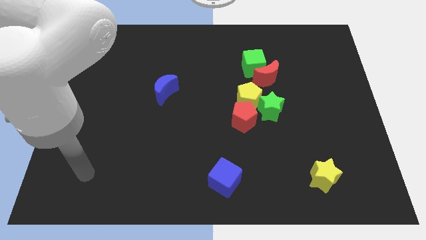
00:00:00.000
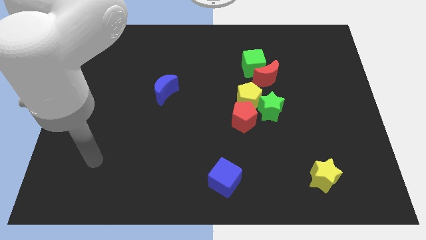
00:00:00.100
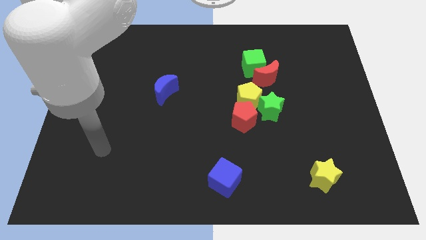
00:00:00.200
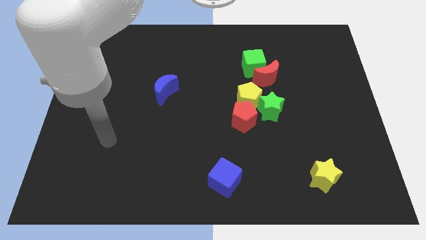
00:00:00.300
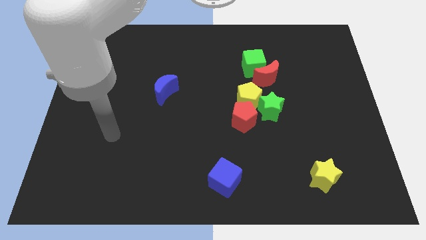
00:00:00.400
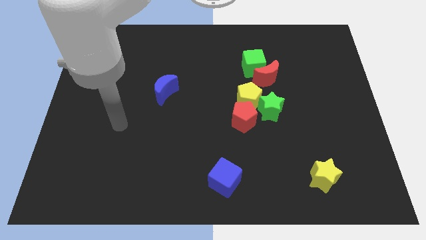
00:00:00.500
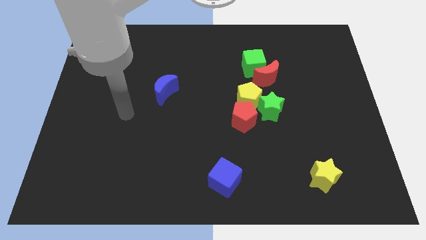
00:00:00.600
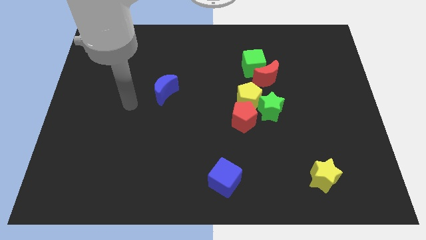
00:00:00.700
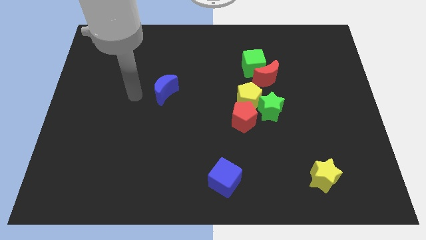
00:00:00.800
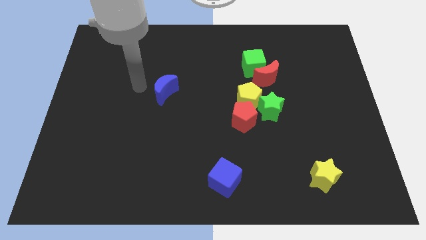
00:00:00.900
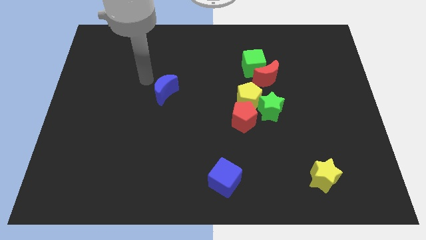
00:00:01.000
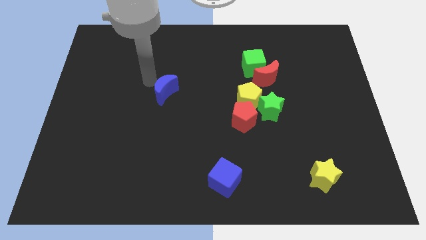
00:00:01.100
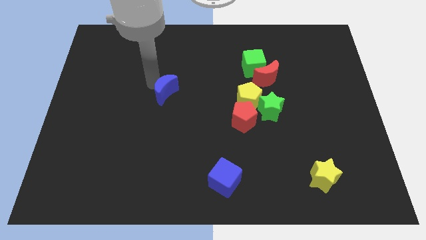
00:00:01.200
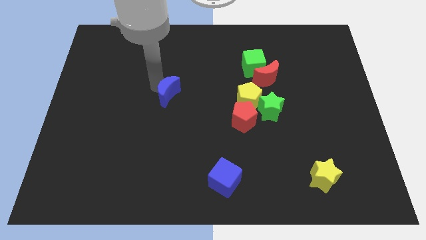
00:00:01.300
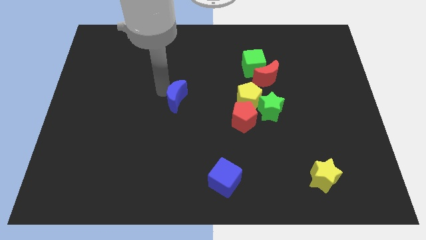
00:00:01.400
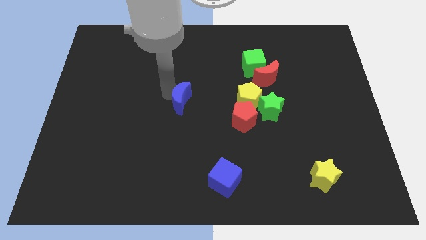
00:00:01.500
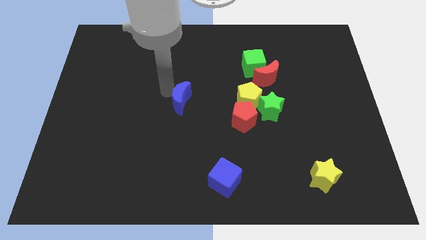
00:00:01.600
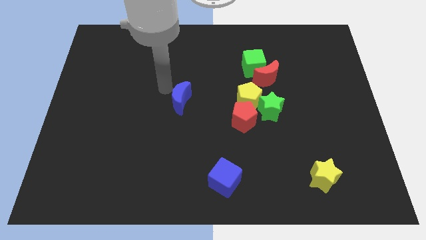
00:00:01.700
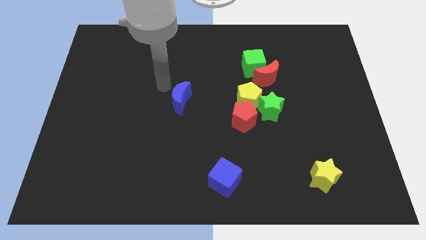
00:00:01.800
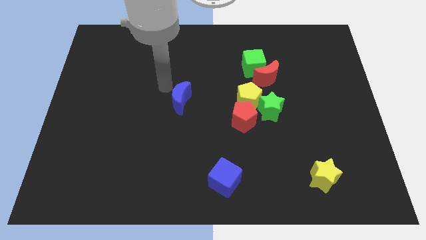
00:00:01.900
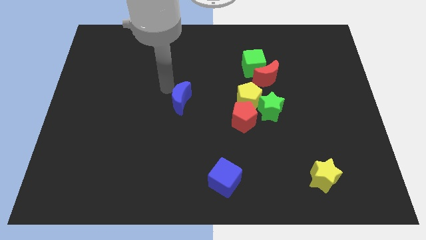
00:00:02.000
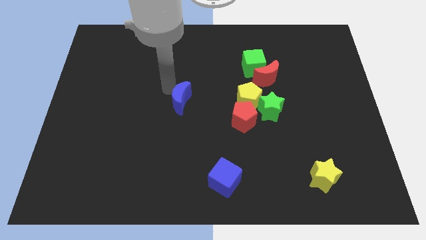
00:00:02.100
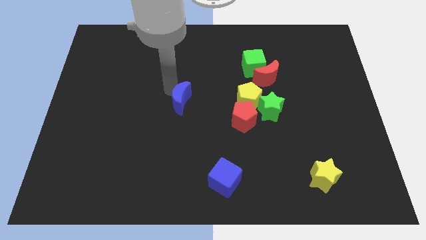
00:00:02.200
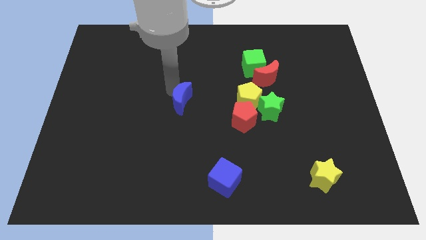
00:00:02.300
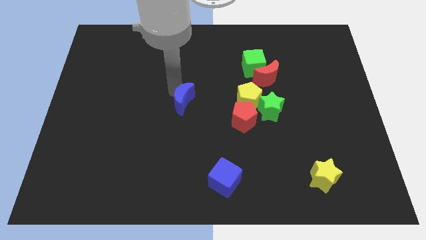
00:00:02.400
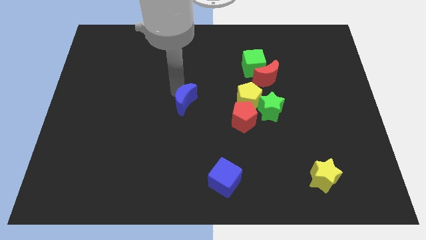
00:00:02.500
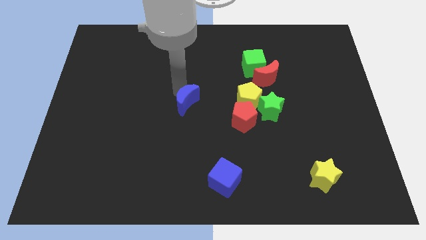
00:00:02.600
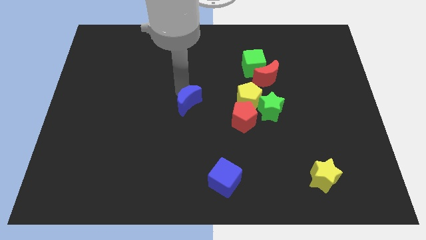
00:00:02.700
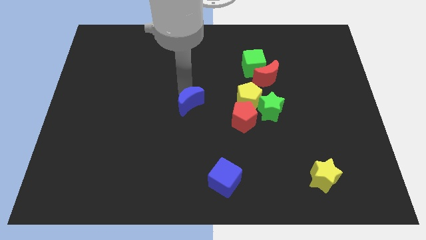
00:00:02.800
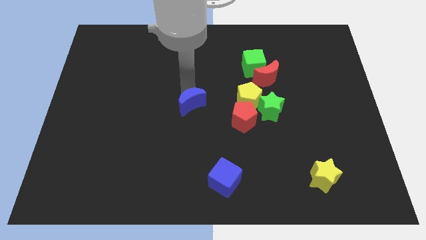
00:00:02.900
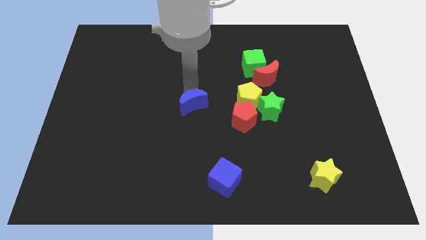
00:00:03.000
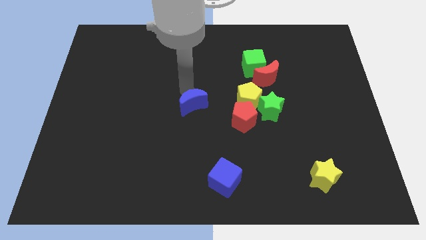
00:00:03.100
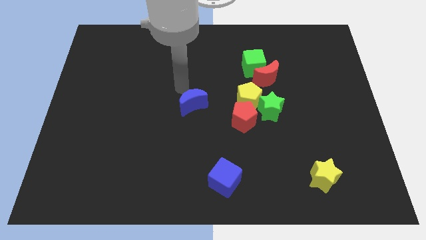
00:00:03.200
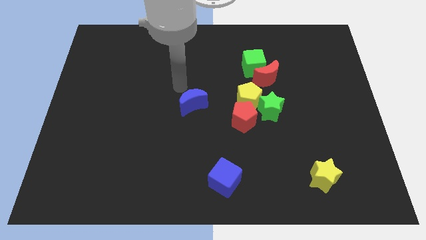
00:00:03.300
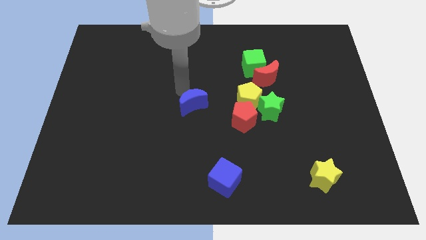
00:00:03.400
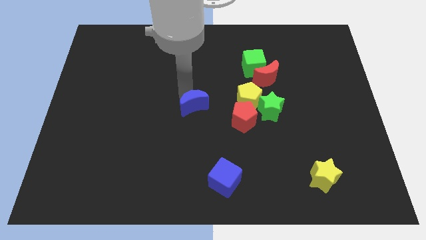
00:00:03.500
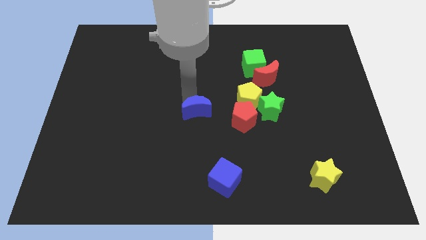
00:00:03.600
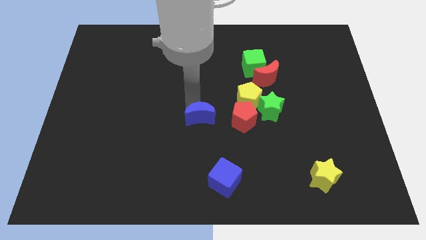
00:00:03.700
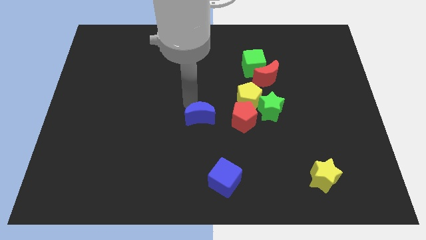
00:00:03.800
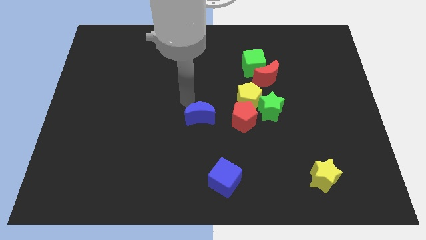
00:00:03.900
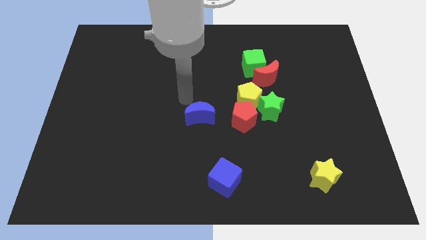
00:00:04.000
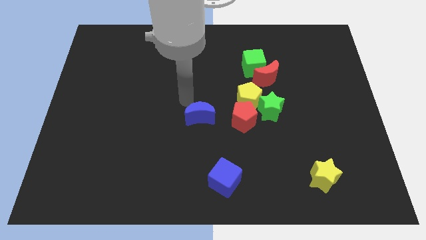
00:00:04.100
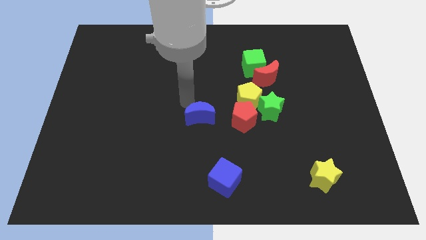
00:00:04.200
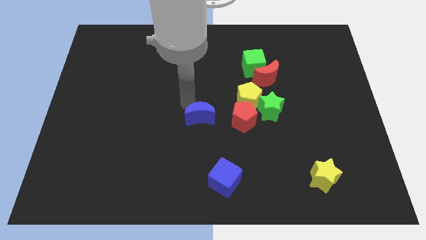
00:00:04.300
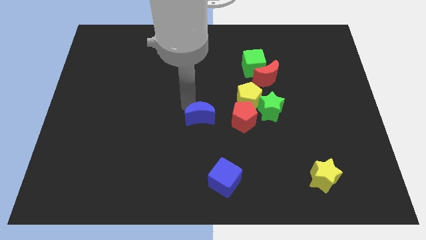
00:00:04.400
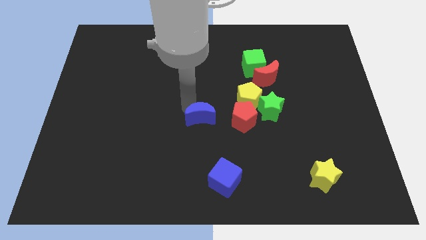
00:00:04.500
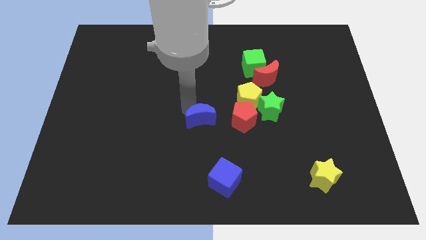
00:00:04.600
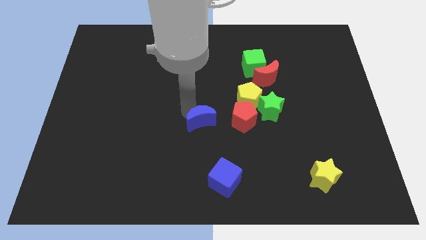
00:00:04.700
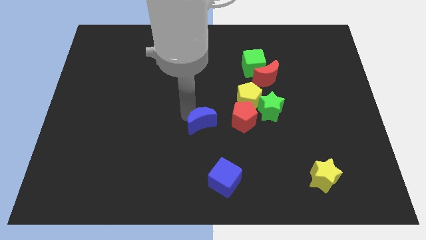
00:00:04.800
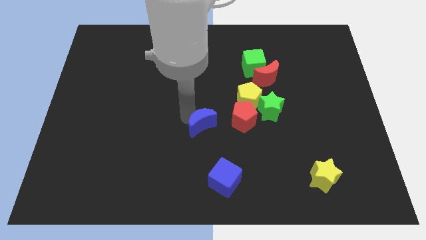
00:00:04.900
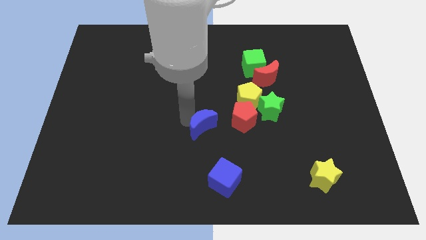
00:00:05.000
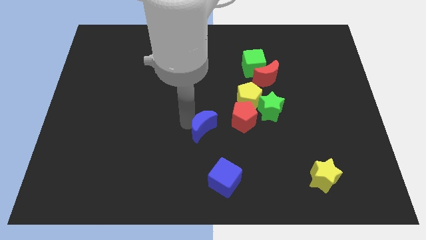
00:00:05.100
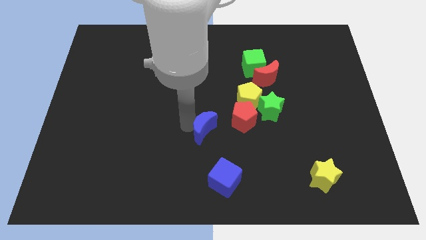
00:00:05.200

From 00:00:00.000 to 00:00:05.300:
slide the blue moon to the bottom left side of the red pentagon

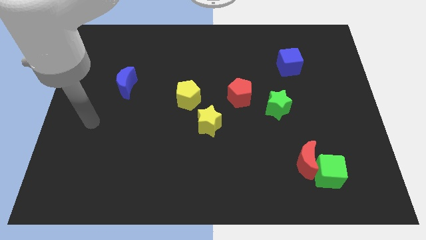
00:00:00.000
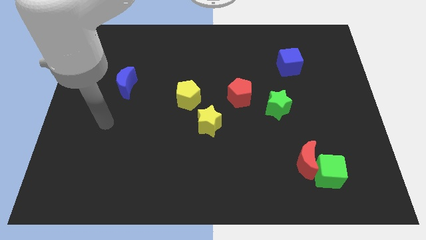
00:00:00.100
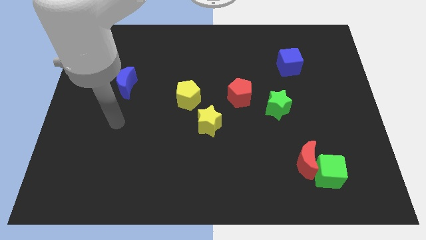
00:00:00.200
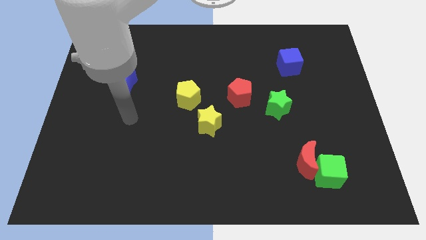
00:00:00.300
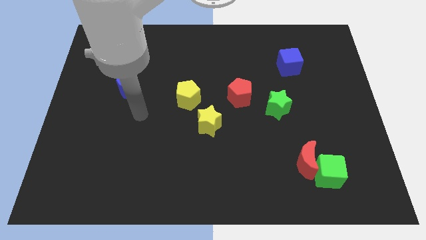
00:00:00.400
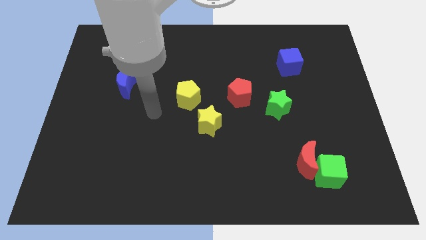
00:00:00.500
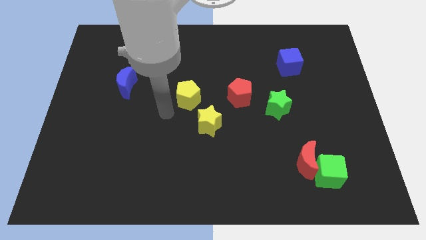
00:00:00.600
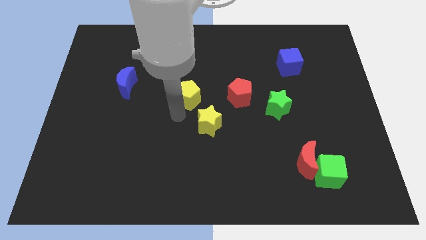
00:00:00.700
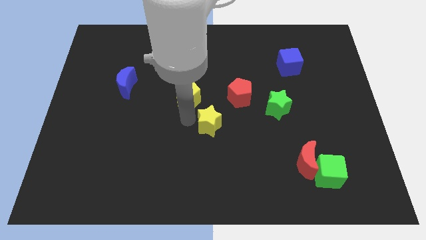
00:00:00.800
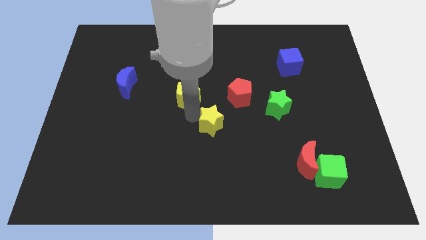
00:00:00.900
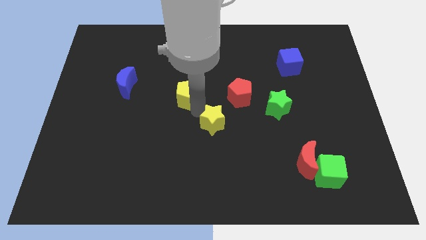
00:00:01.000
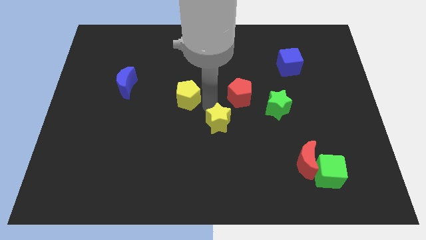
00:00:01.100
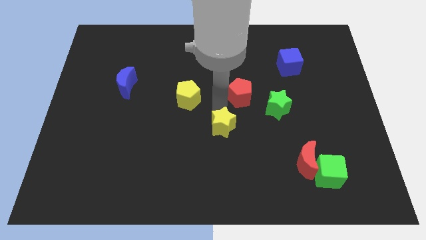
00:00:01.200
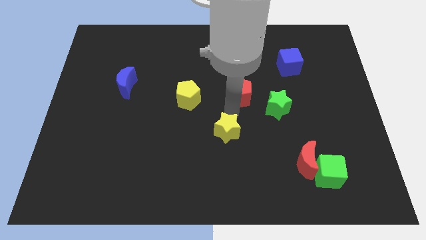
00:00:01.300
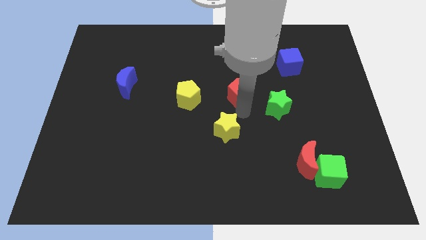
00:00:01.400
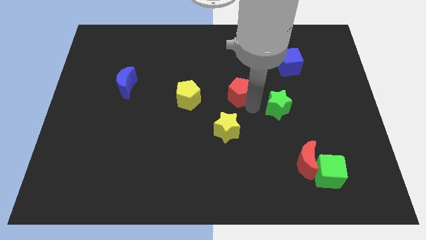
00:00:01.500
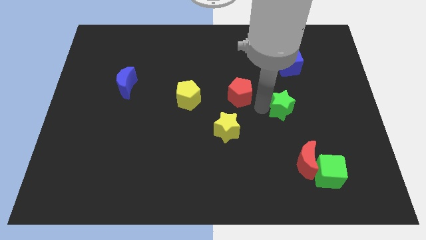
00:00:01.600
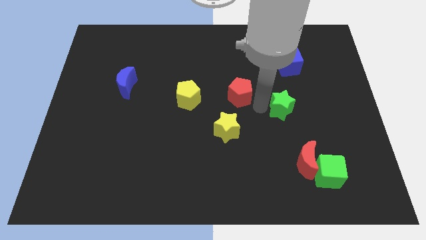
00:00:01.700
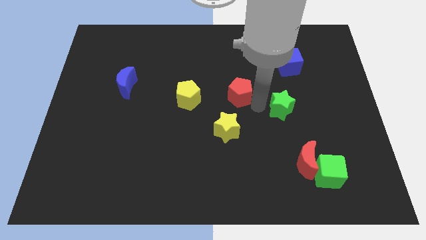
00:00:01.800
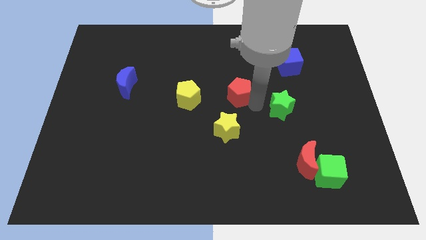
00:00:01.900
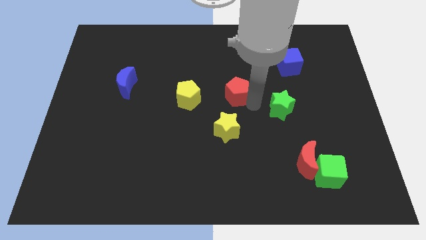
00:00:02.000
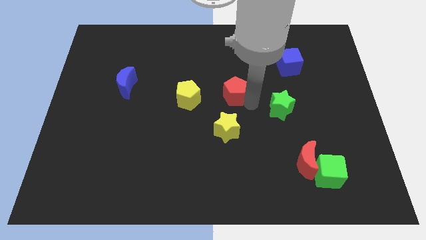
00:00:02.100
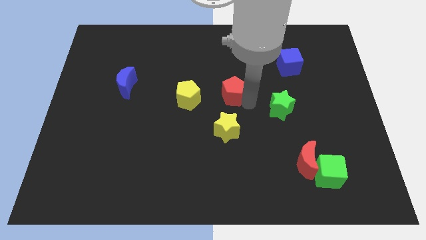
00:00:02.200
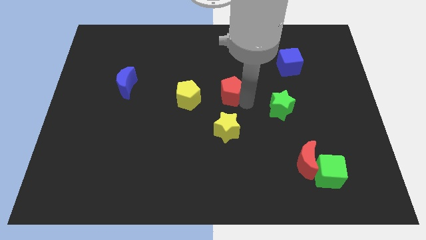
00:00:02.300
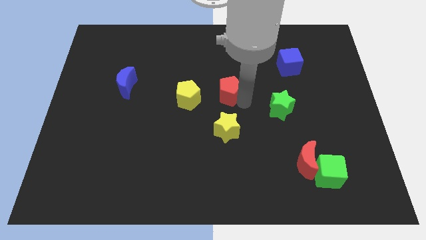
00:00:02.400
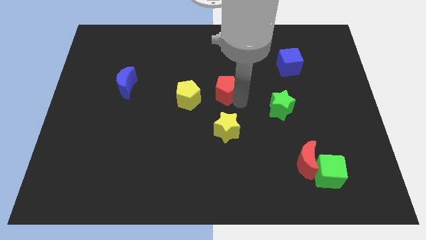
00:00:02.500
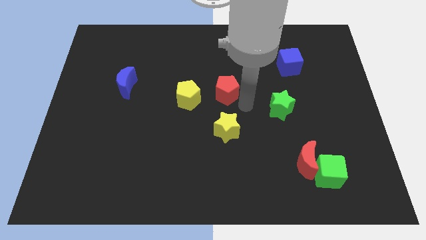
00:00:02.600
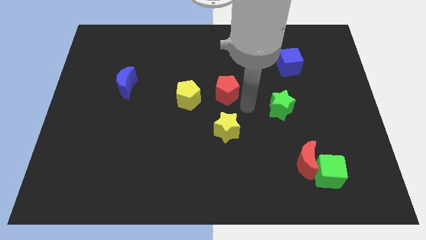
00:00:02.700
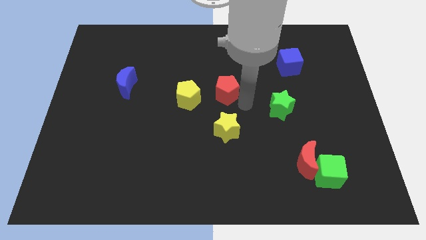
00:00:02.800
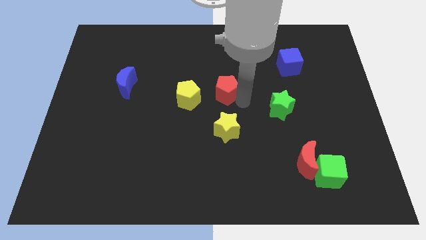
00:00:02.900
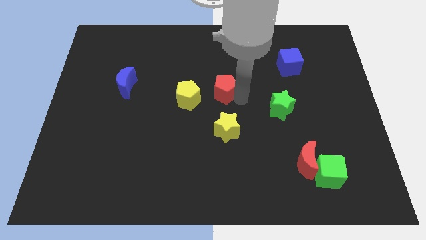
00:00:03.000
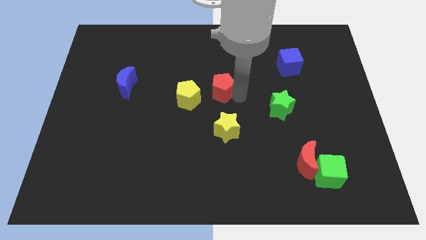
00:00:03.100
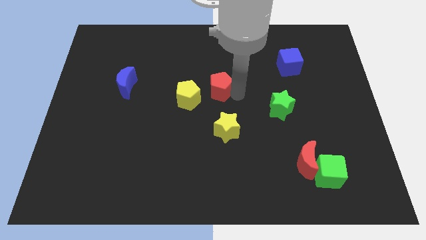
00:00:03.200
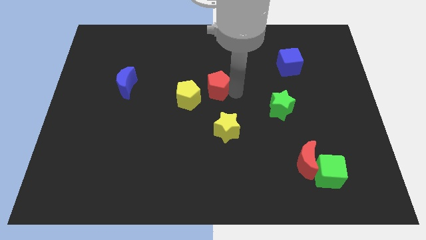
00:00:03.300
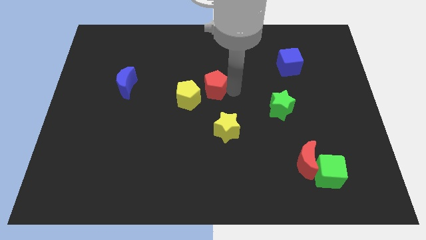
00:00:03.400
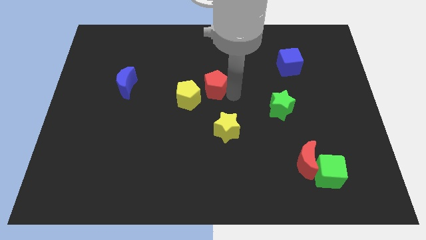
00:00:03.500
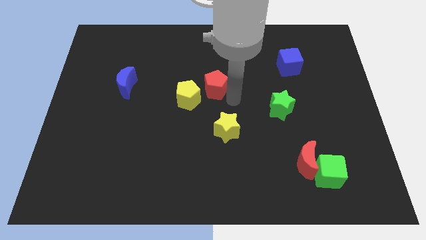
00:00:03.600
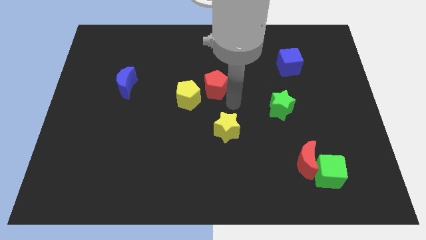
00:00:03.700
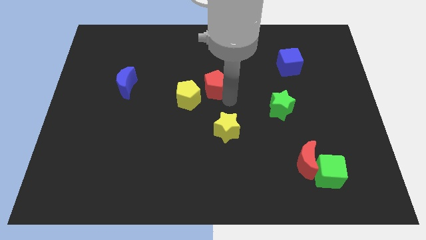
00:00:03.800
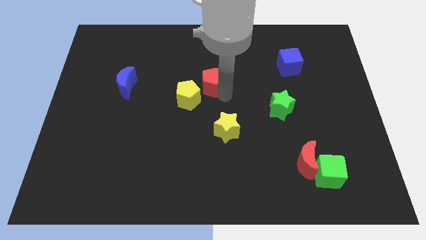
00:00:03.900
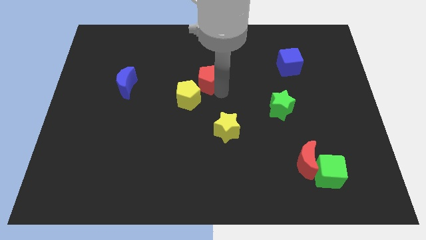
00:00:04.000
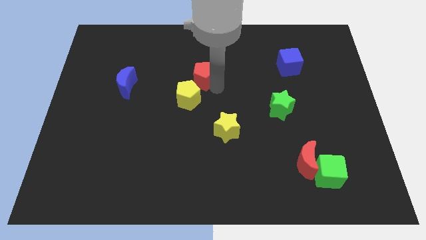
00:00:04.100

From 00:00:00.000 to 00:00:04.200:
put the red pentagon to the top of the yellow pentagon
